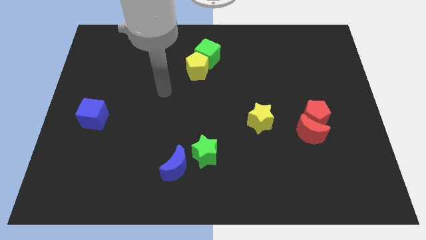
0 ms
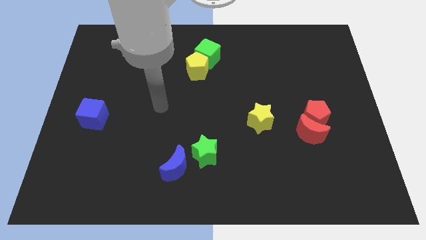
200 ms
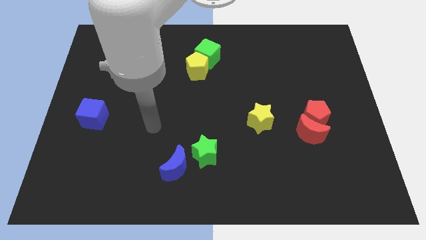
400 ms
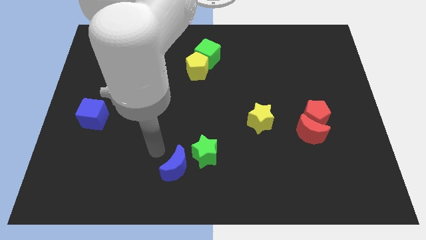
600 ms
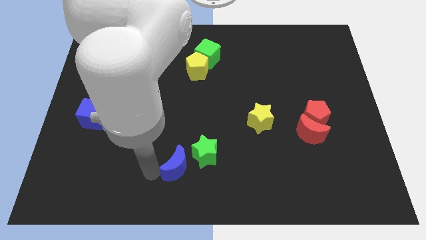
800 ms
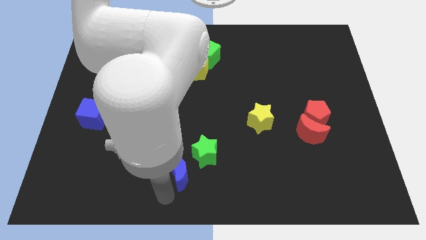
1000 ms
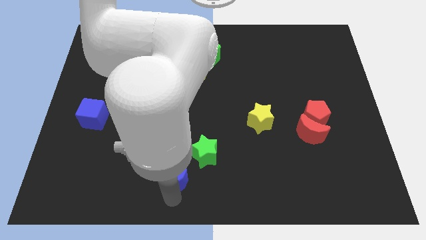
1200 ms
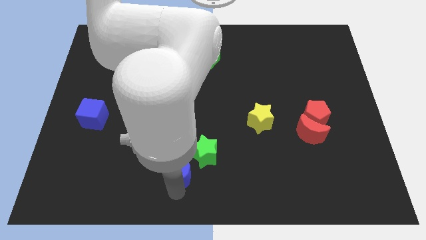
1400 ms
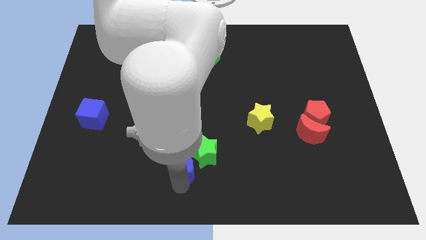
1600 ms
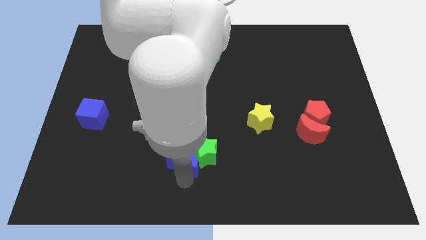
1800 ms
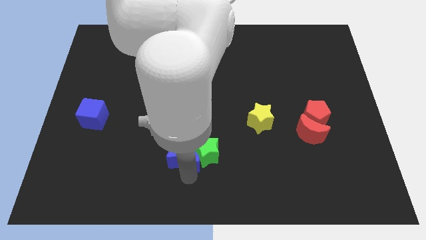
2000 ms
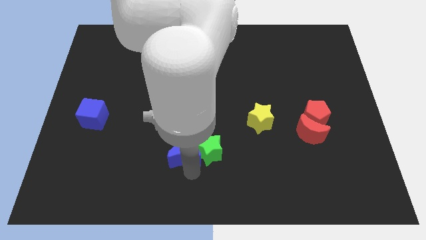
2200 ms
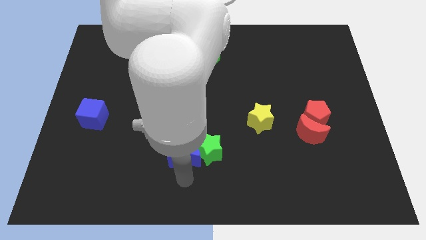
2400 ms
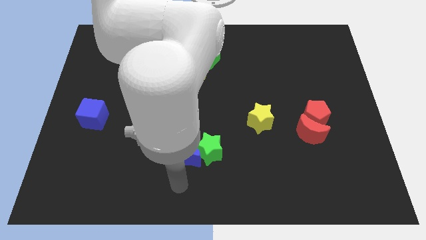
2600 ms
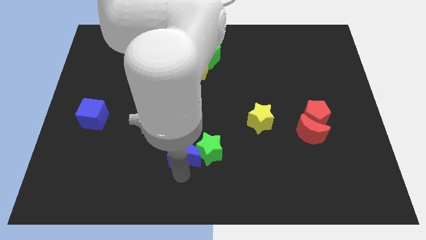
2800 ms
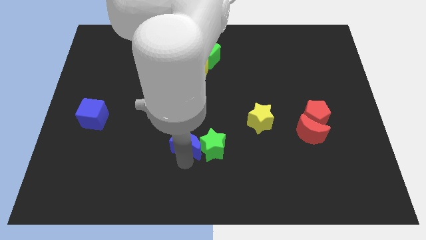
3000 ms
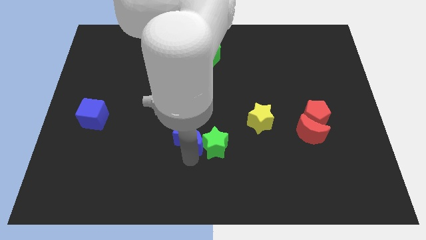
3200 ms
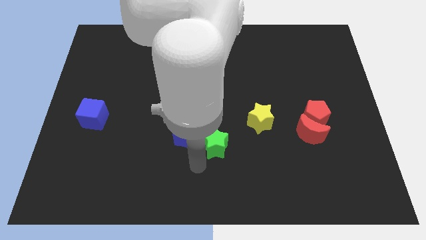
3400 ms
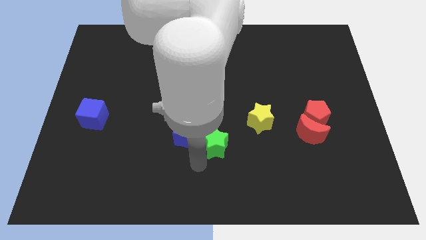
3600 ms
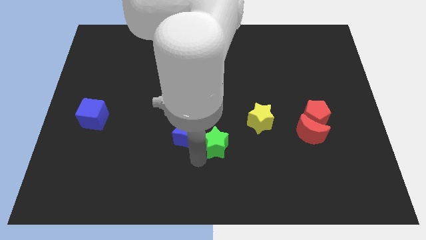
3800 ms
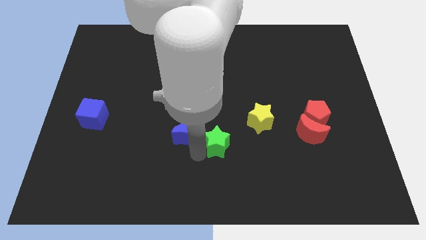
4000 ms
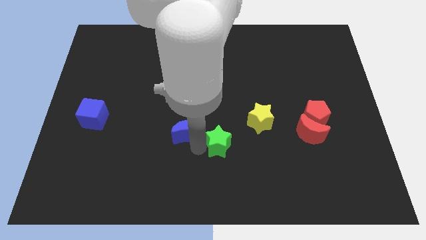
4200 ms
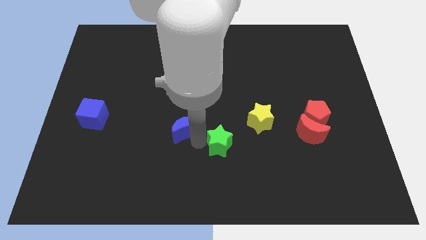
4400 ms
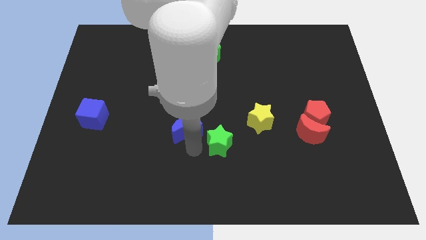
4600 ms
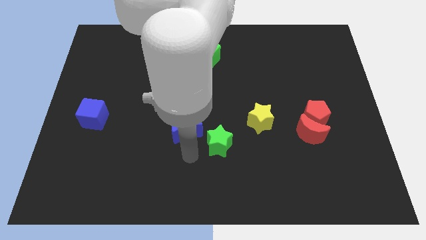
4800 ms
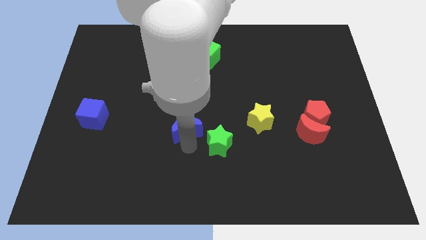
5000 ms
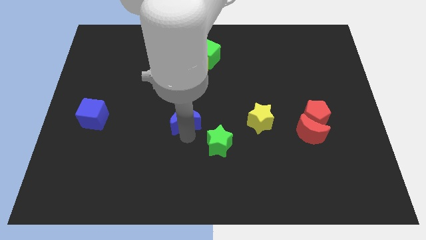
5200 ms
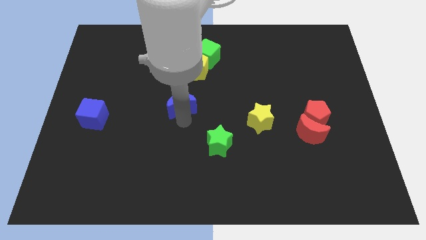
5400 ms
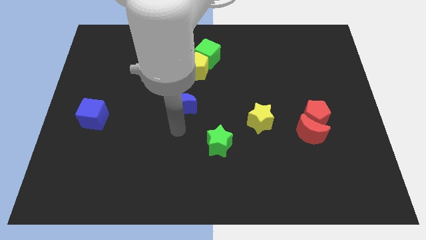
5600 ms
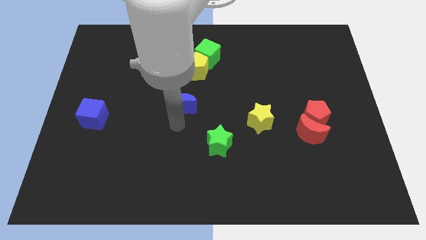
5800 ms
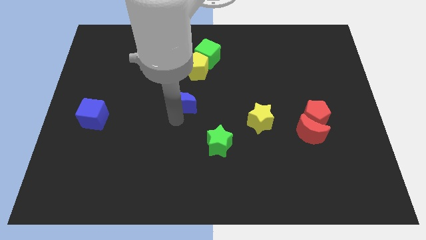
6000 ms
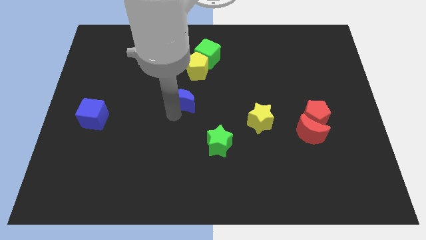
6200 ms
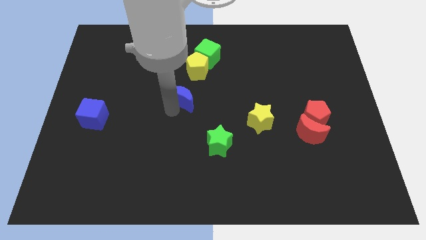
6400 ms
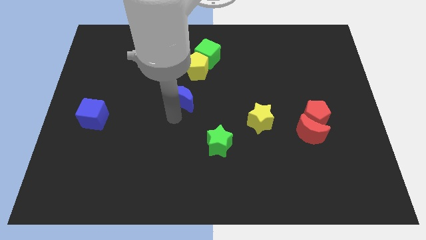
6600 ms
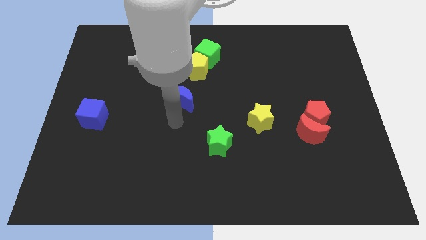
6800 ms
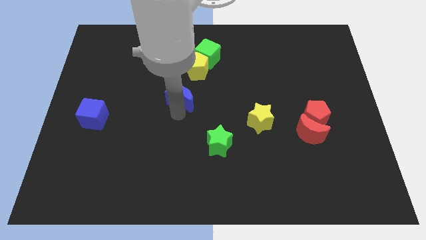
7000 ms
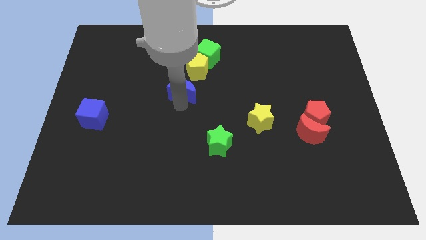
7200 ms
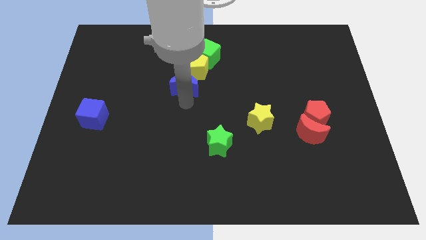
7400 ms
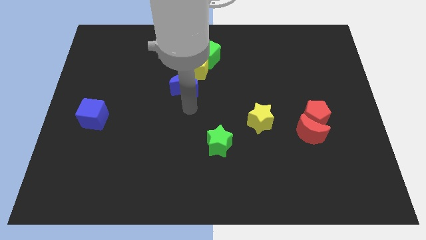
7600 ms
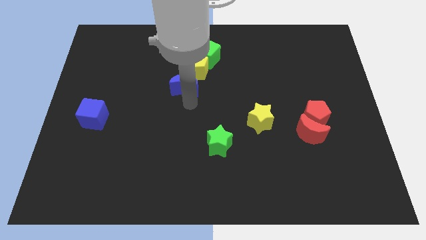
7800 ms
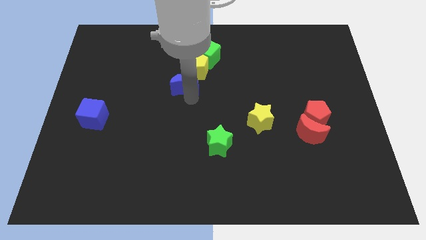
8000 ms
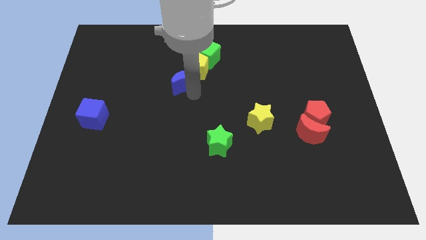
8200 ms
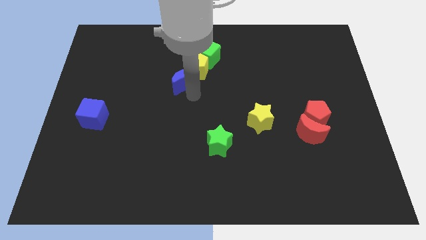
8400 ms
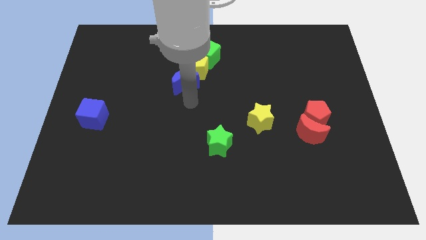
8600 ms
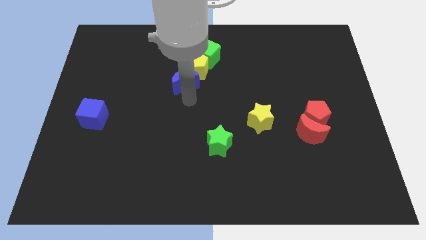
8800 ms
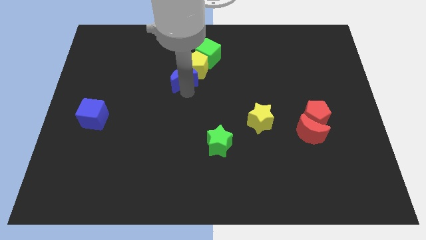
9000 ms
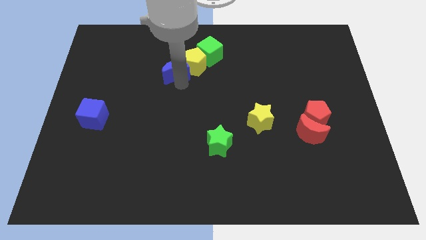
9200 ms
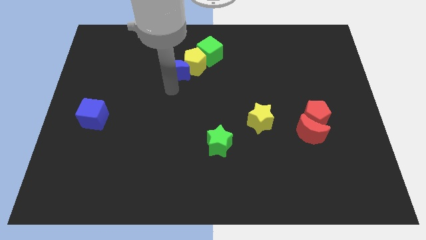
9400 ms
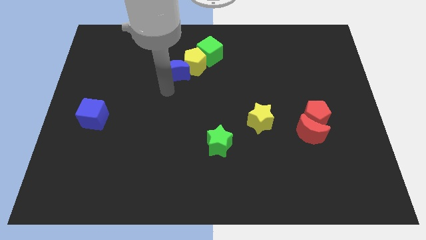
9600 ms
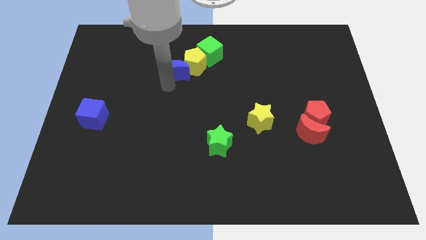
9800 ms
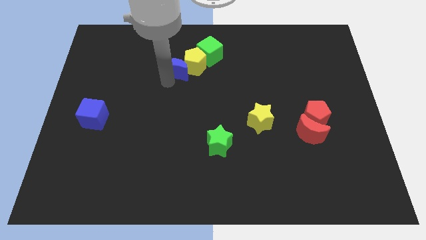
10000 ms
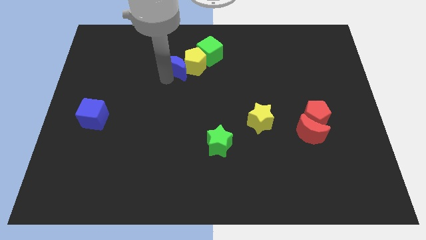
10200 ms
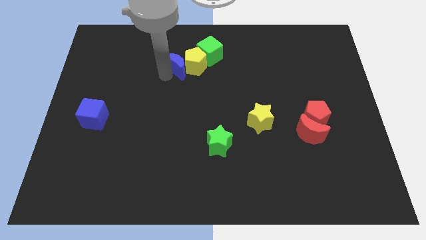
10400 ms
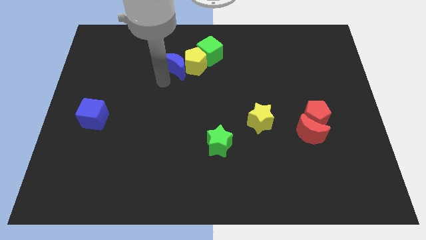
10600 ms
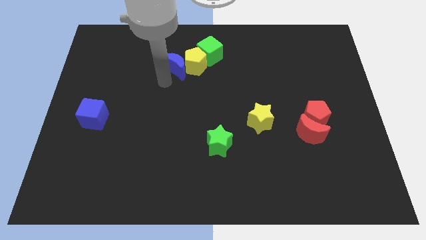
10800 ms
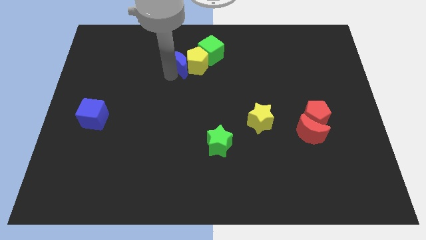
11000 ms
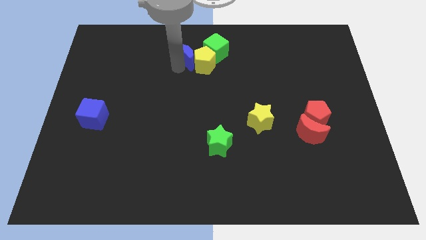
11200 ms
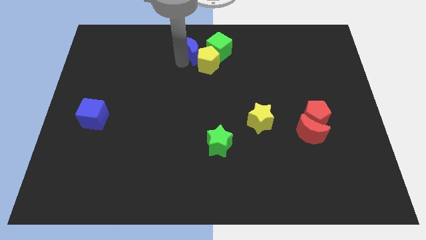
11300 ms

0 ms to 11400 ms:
put the blue moon to the towards your base

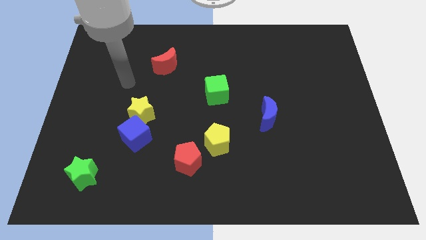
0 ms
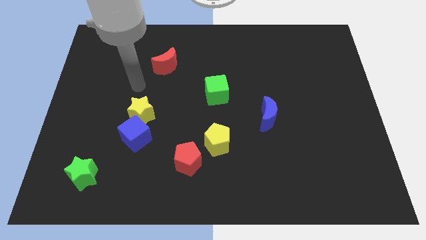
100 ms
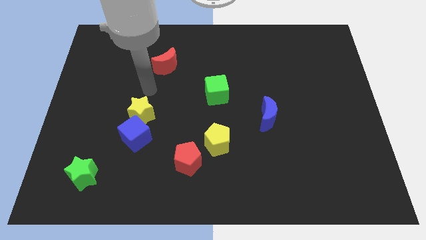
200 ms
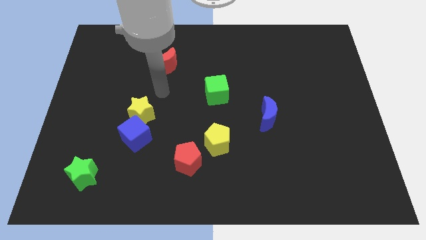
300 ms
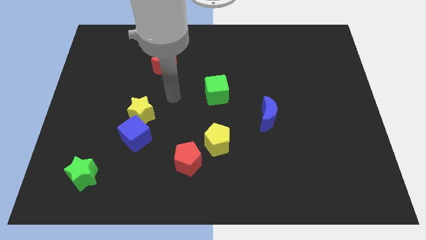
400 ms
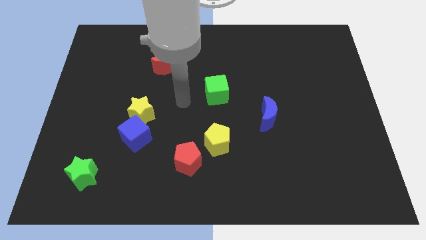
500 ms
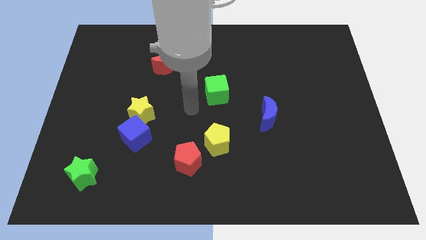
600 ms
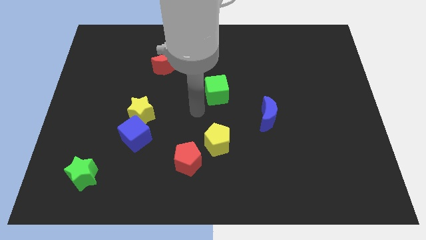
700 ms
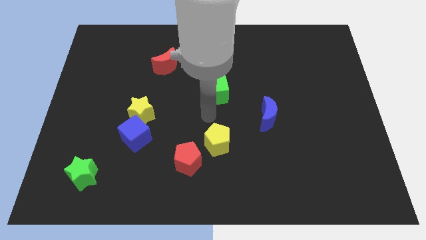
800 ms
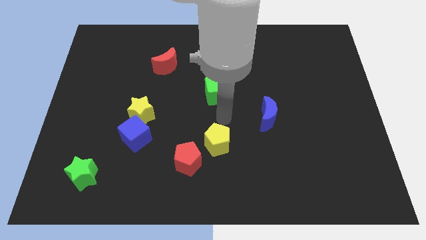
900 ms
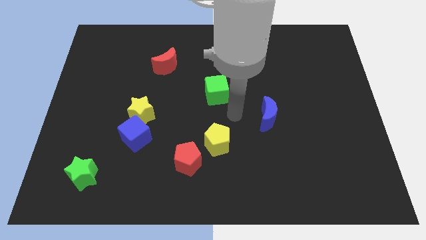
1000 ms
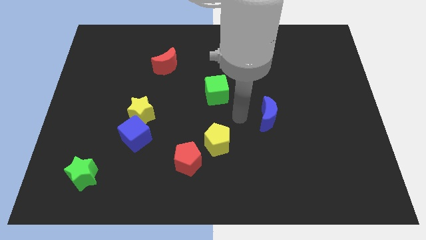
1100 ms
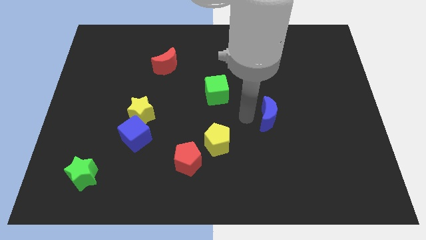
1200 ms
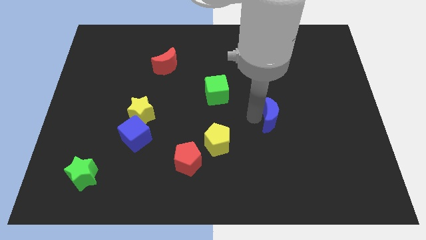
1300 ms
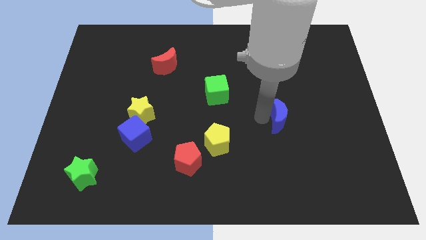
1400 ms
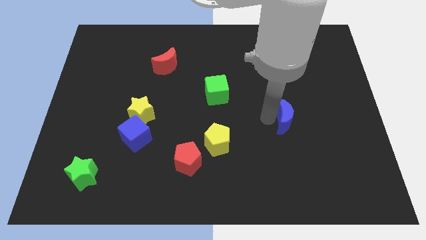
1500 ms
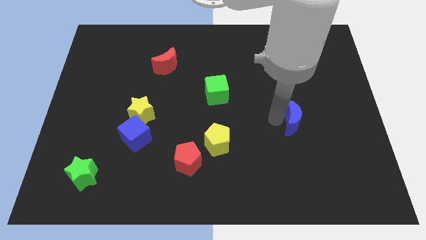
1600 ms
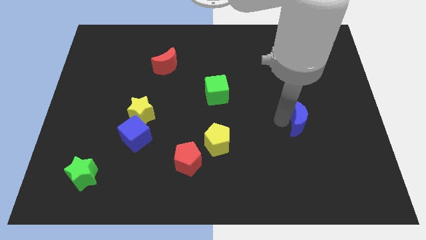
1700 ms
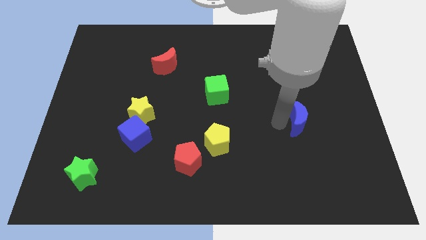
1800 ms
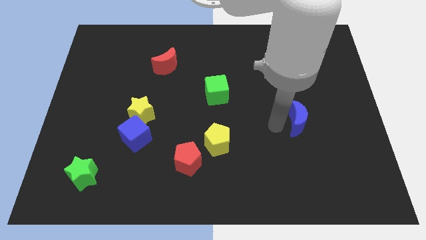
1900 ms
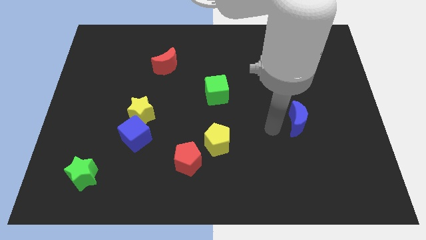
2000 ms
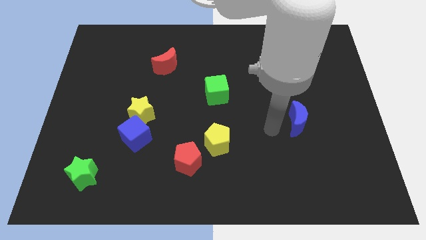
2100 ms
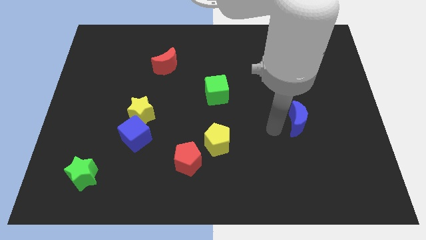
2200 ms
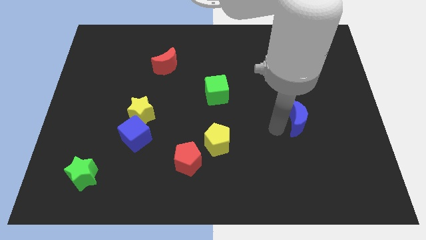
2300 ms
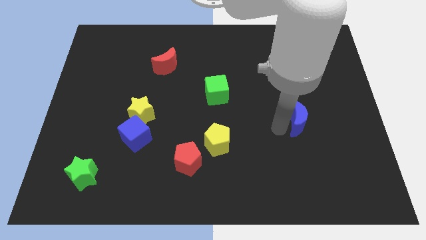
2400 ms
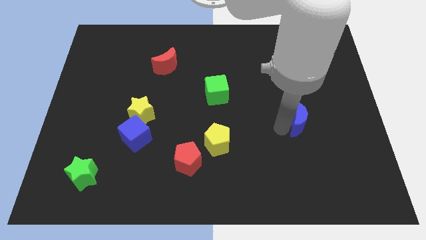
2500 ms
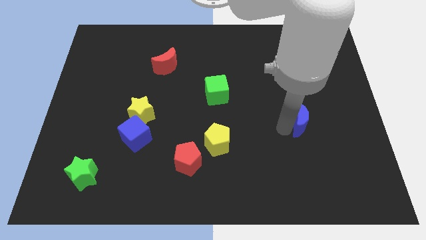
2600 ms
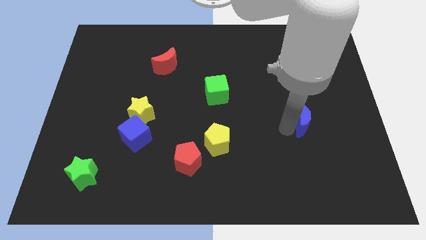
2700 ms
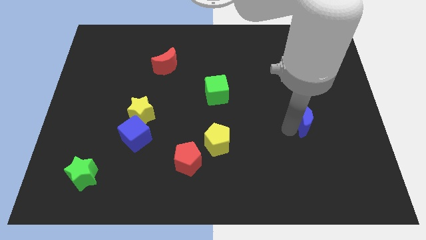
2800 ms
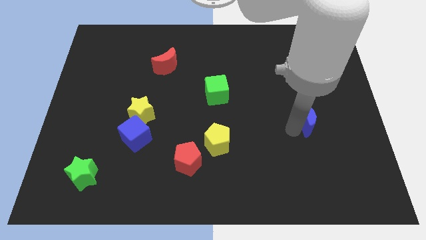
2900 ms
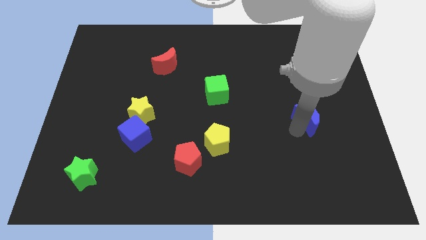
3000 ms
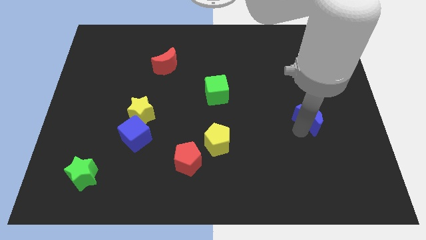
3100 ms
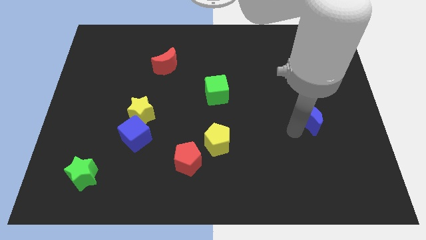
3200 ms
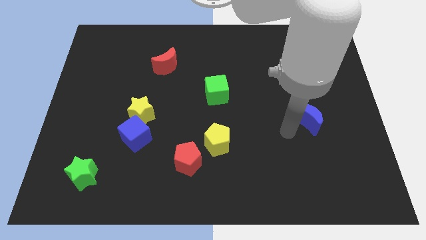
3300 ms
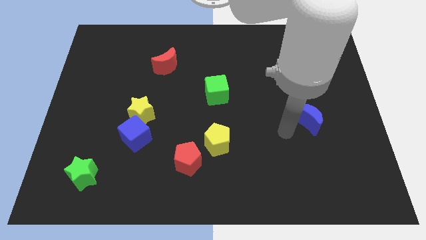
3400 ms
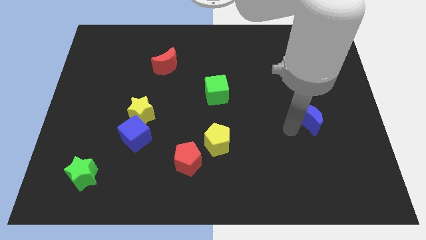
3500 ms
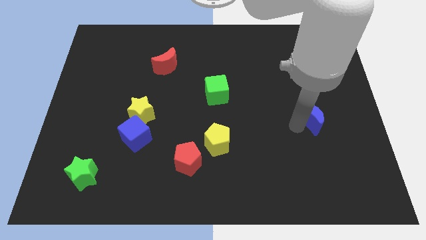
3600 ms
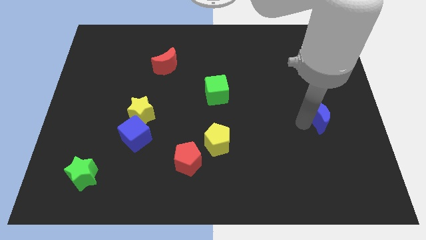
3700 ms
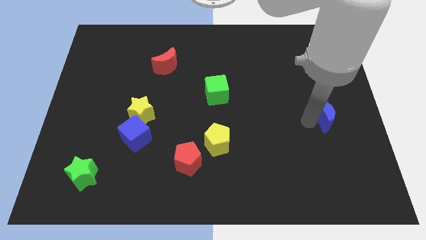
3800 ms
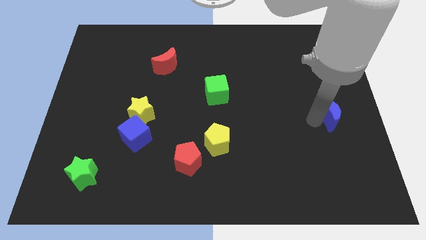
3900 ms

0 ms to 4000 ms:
move the blue moon to the right side
